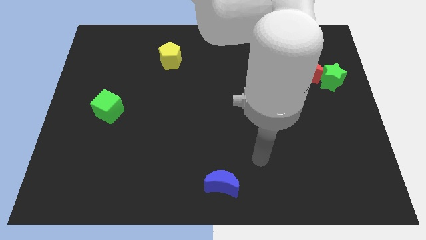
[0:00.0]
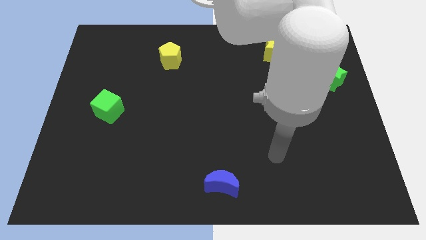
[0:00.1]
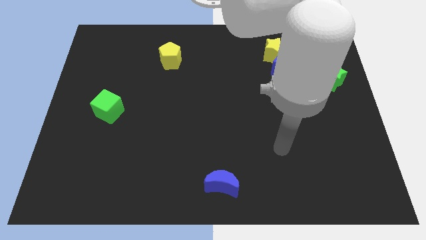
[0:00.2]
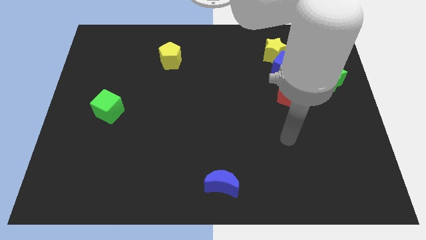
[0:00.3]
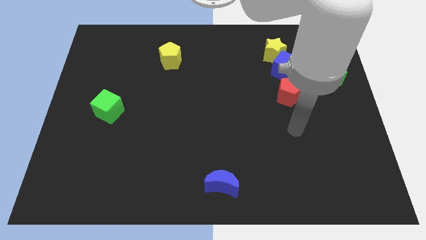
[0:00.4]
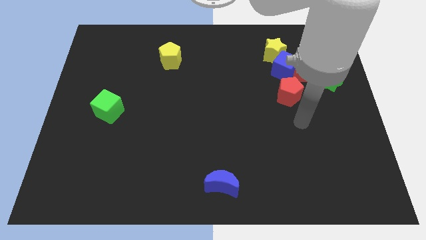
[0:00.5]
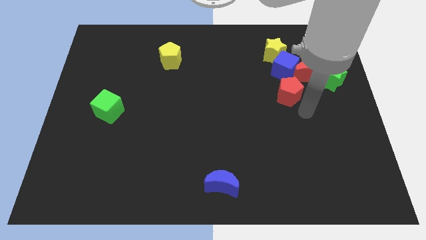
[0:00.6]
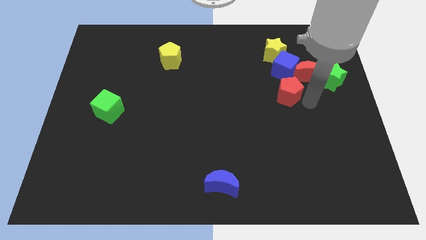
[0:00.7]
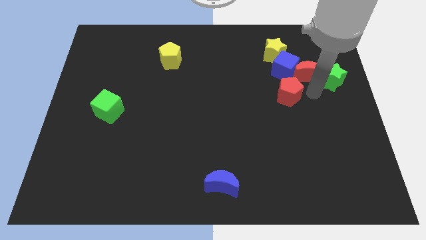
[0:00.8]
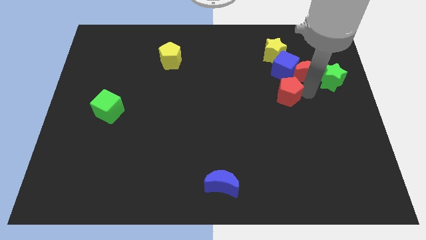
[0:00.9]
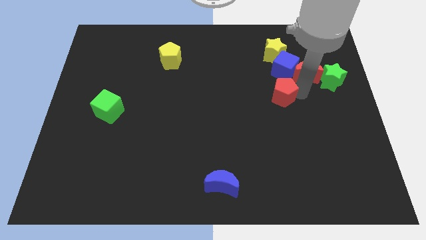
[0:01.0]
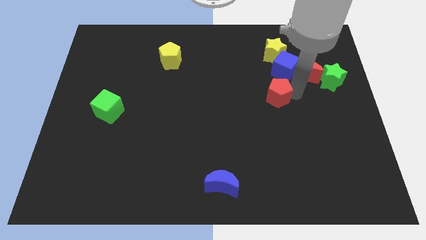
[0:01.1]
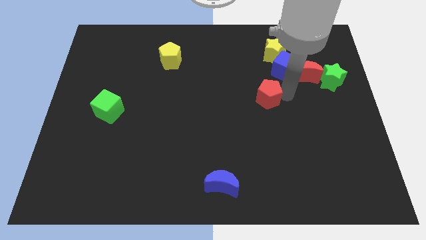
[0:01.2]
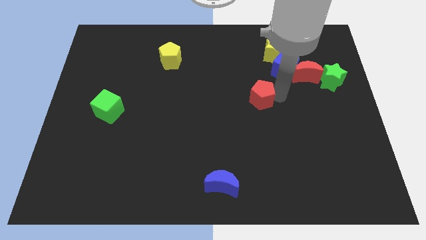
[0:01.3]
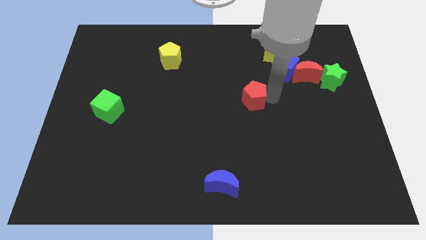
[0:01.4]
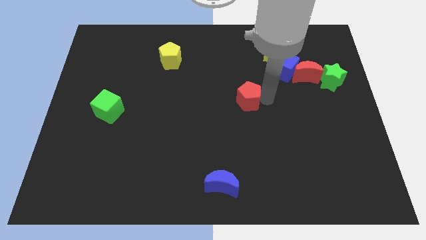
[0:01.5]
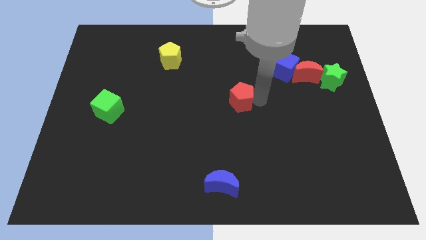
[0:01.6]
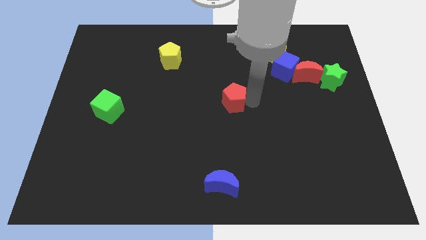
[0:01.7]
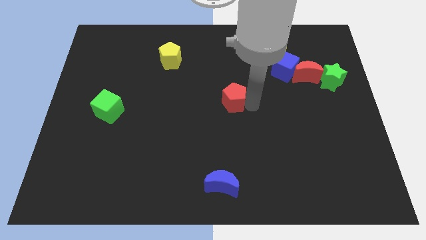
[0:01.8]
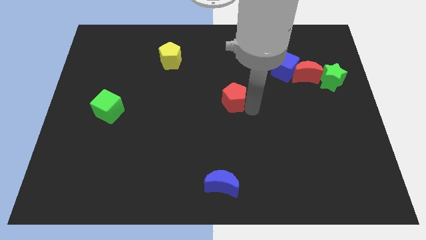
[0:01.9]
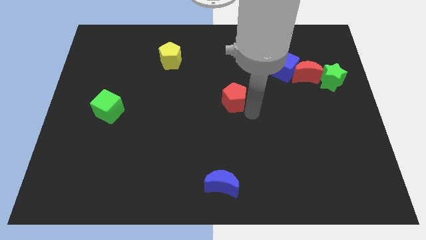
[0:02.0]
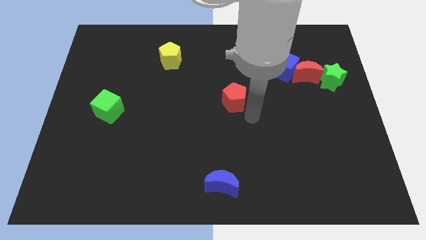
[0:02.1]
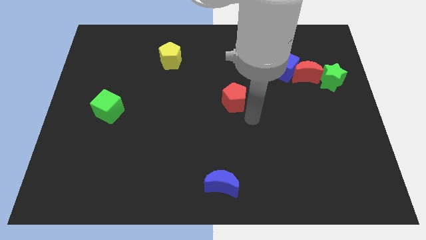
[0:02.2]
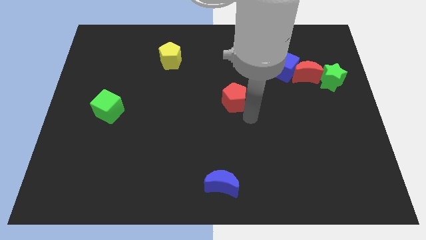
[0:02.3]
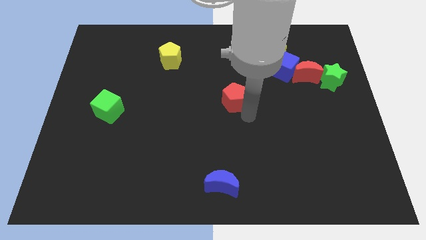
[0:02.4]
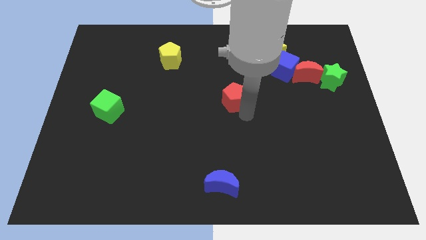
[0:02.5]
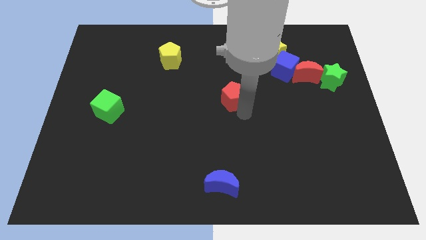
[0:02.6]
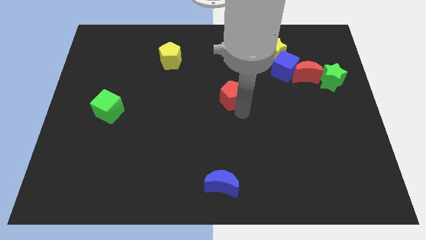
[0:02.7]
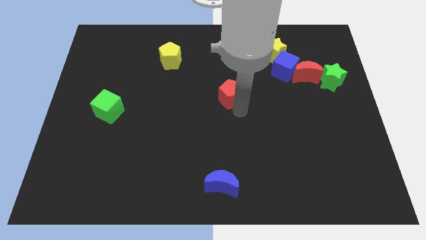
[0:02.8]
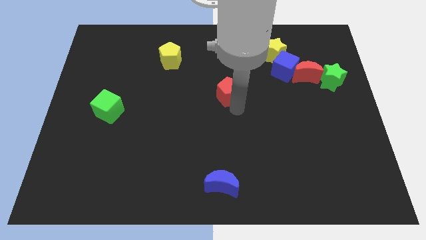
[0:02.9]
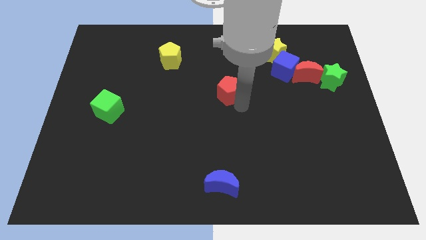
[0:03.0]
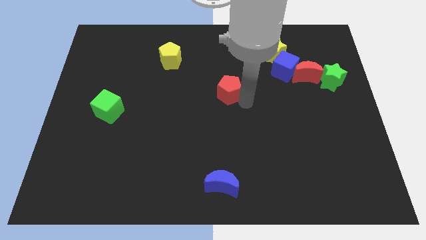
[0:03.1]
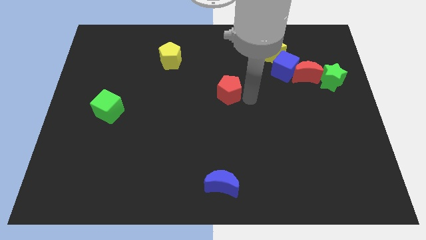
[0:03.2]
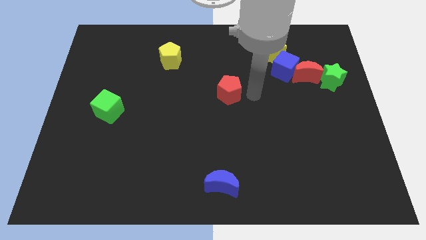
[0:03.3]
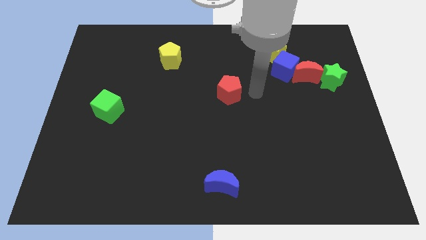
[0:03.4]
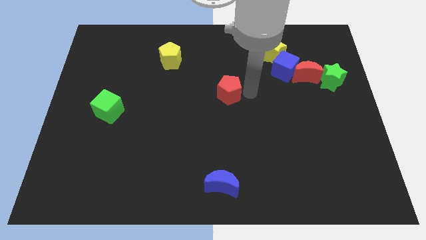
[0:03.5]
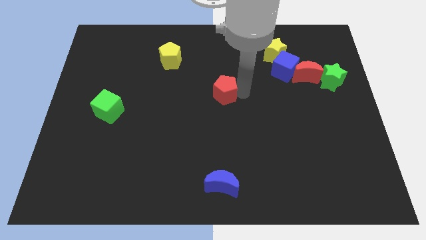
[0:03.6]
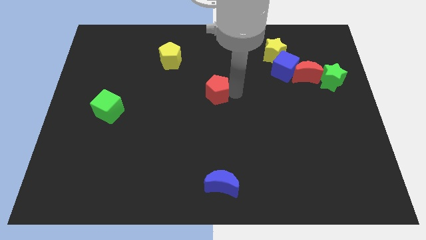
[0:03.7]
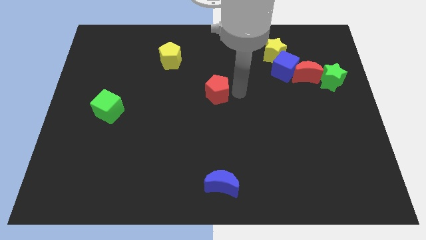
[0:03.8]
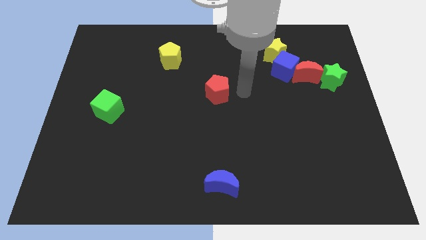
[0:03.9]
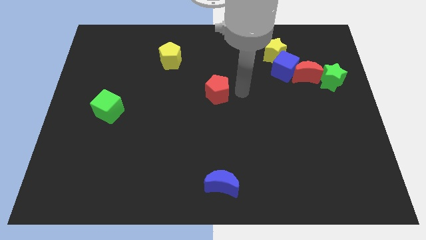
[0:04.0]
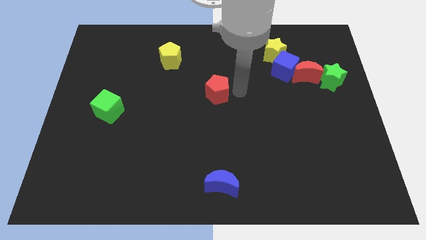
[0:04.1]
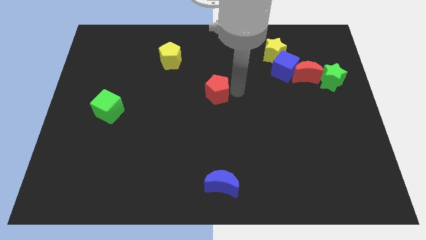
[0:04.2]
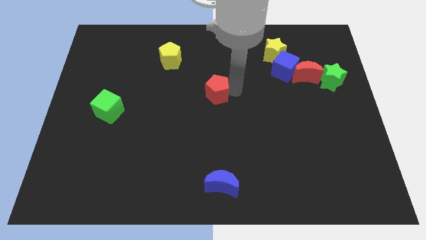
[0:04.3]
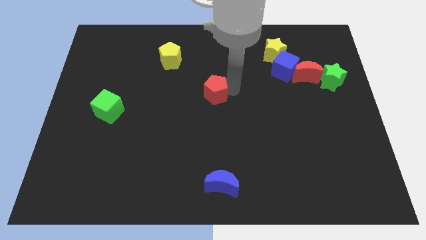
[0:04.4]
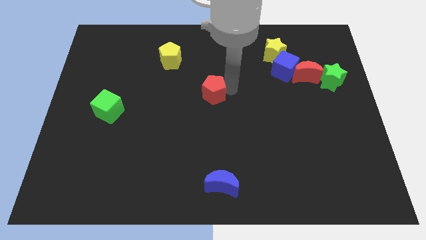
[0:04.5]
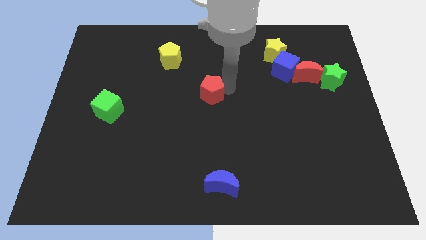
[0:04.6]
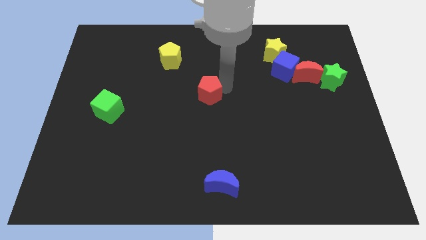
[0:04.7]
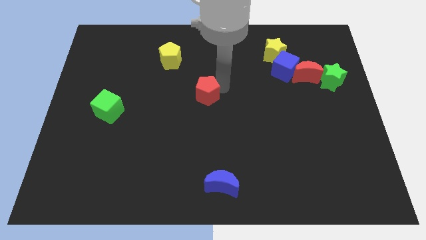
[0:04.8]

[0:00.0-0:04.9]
push the red pentagon to the left

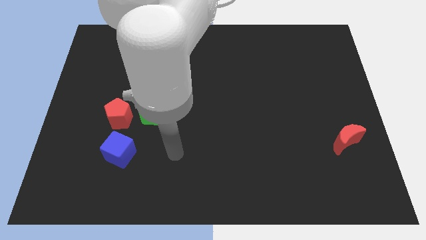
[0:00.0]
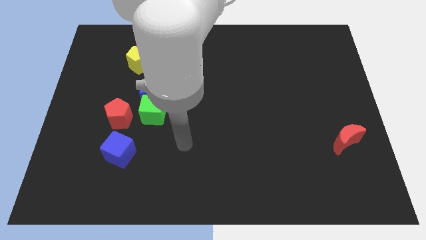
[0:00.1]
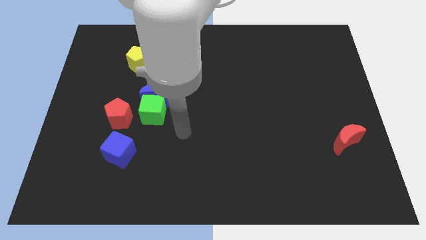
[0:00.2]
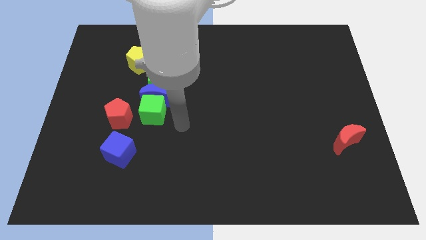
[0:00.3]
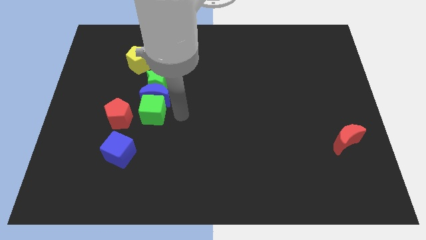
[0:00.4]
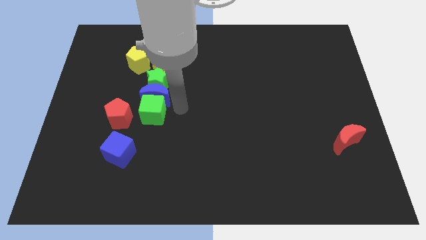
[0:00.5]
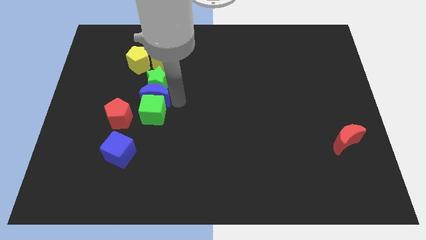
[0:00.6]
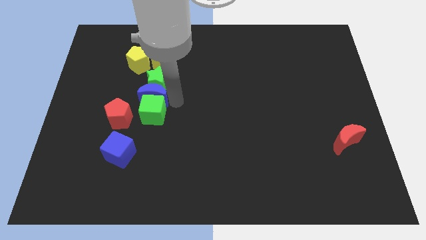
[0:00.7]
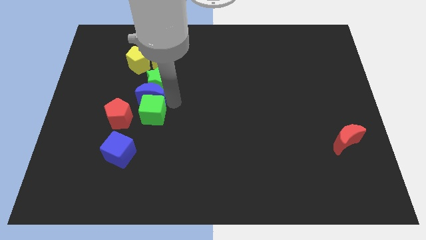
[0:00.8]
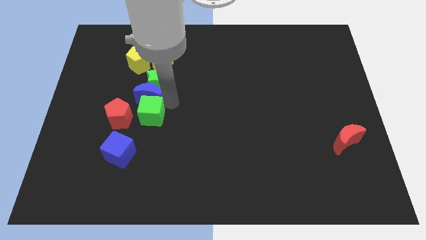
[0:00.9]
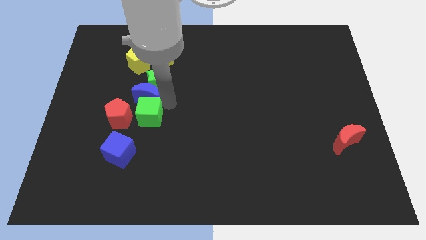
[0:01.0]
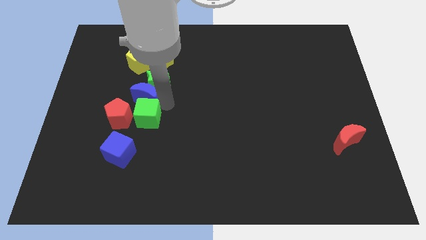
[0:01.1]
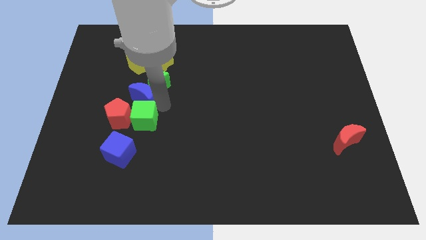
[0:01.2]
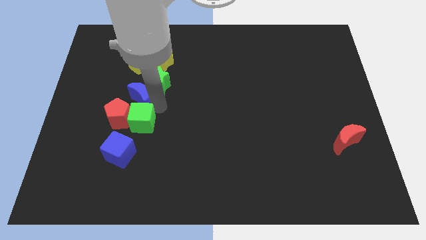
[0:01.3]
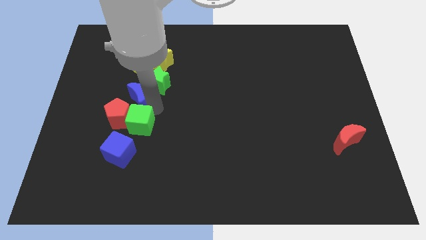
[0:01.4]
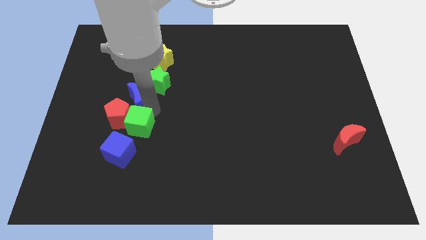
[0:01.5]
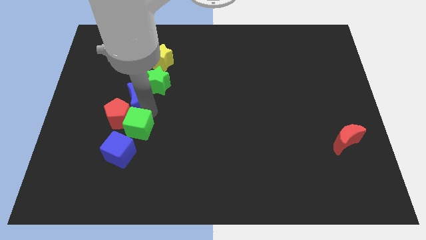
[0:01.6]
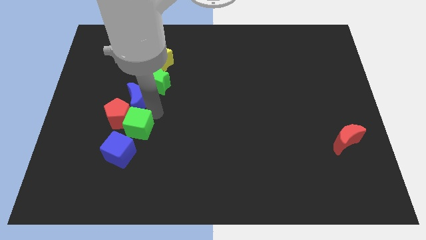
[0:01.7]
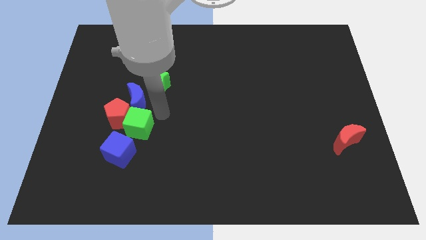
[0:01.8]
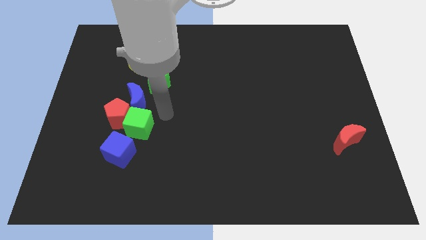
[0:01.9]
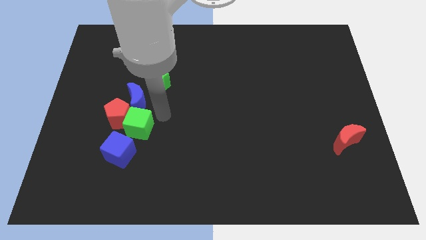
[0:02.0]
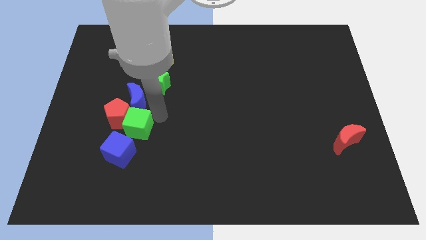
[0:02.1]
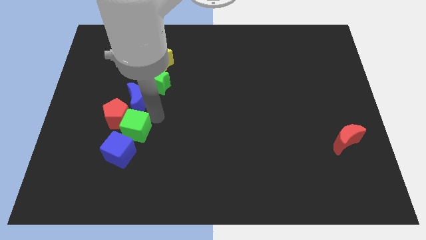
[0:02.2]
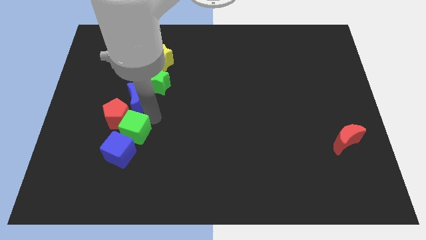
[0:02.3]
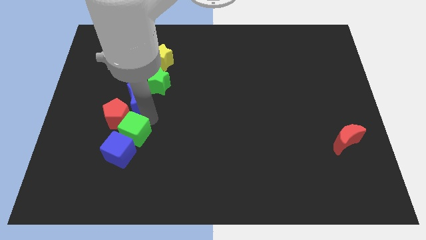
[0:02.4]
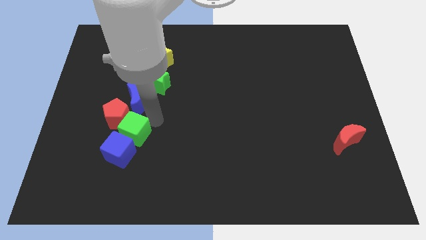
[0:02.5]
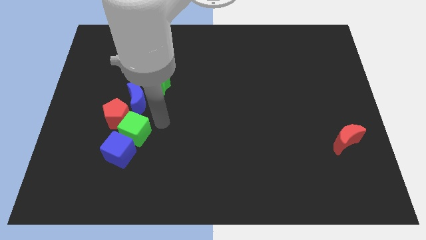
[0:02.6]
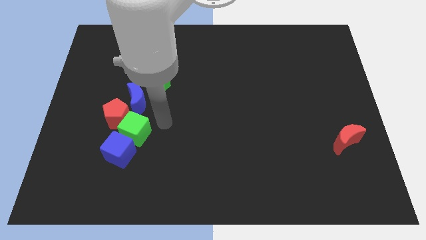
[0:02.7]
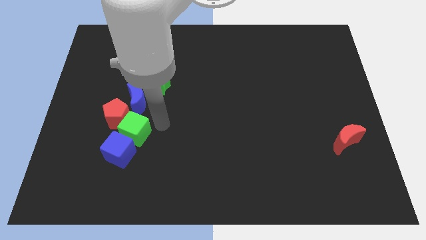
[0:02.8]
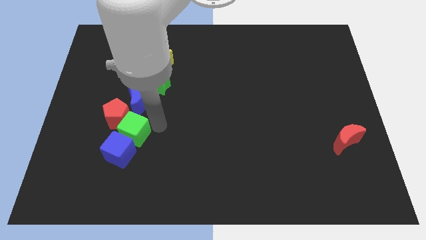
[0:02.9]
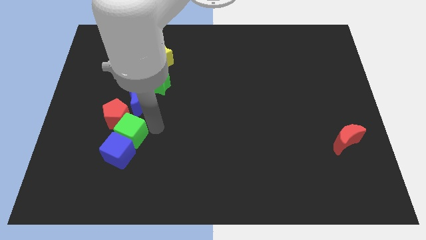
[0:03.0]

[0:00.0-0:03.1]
slide the green cube a bit down and then to the left

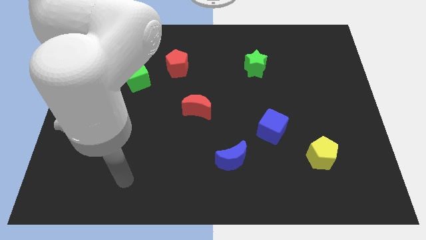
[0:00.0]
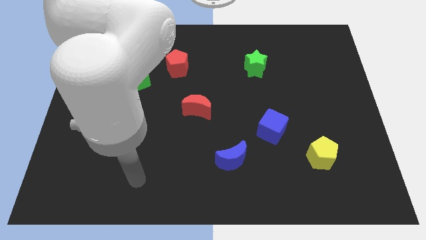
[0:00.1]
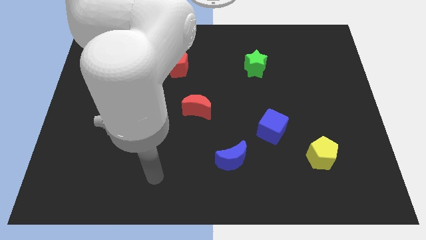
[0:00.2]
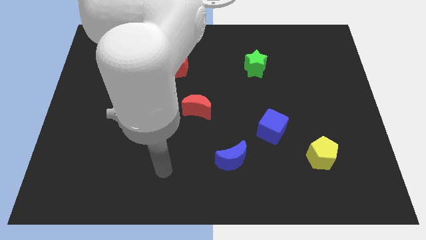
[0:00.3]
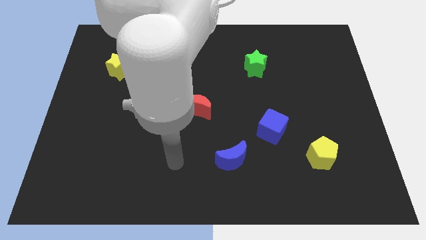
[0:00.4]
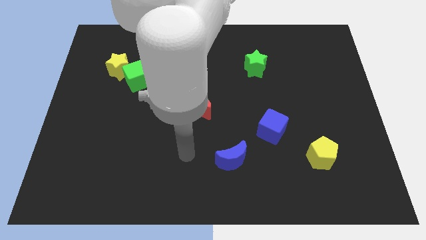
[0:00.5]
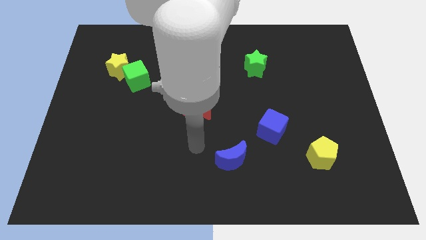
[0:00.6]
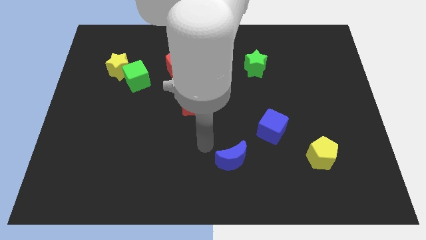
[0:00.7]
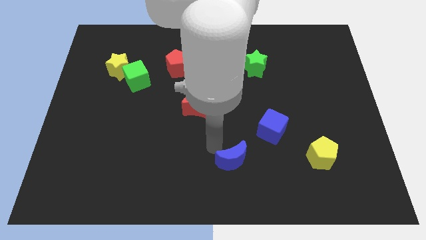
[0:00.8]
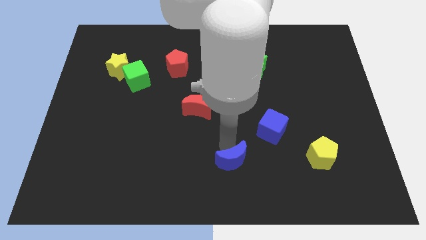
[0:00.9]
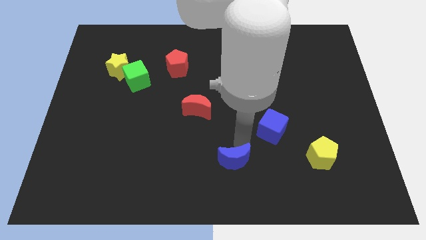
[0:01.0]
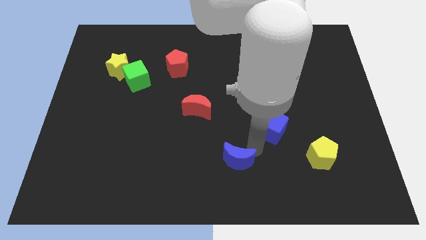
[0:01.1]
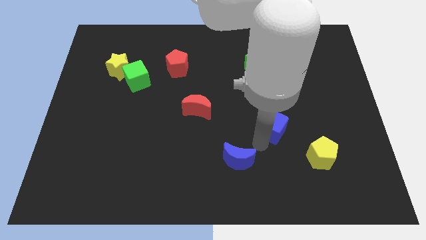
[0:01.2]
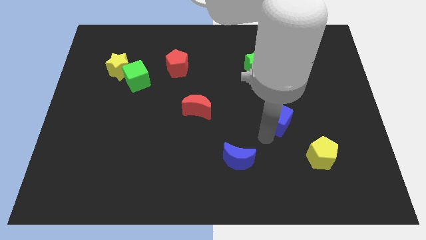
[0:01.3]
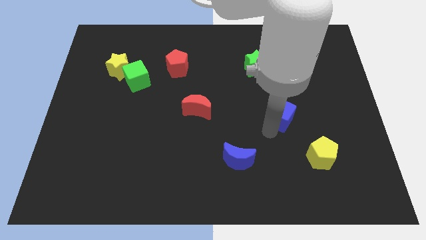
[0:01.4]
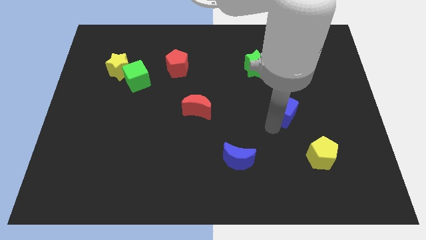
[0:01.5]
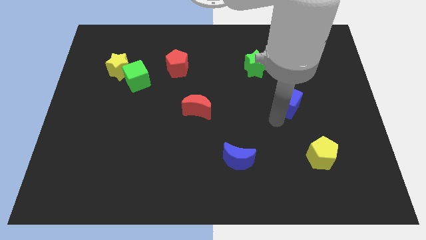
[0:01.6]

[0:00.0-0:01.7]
push the blue cube a little up and then right
